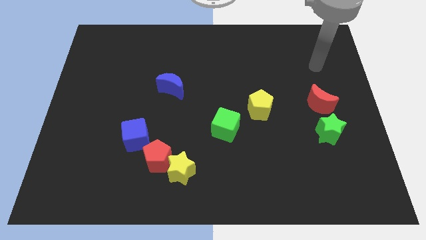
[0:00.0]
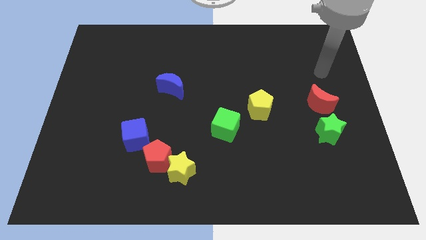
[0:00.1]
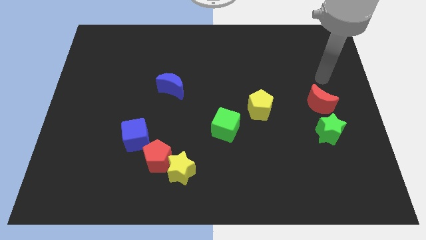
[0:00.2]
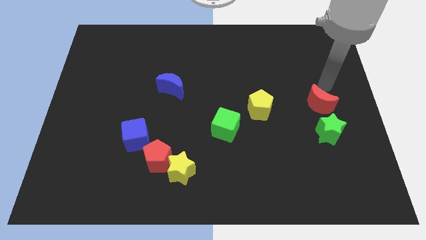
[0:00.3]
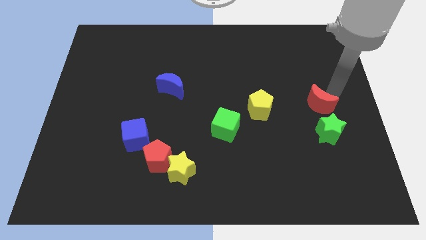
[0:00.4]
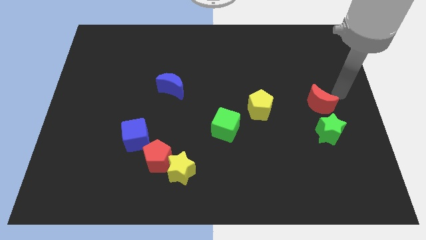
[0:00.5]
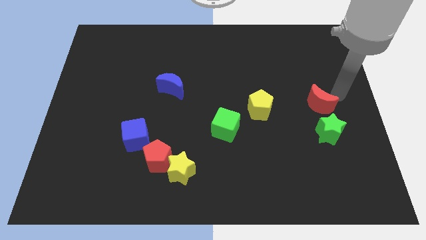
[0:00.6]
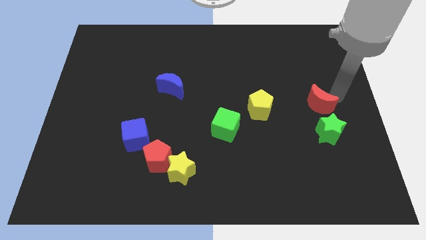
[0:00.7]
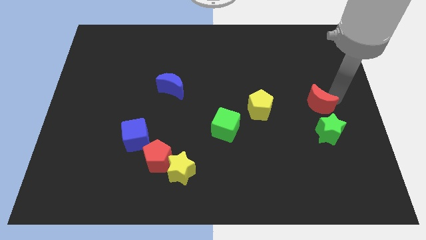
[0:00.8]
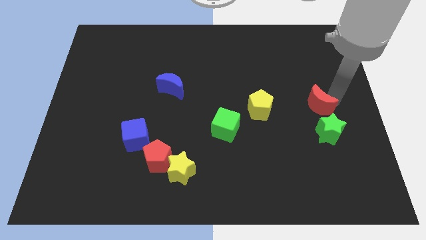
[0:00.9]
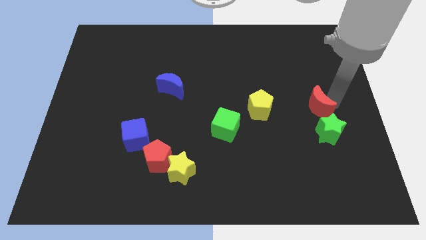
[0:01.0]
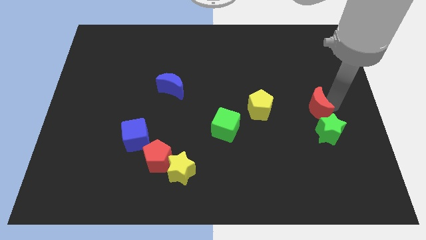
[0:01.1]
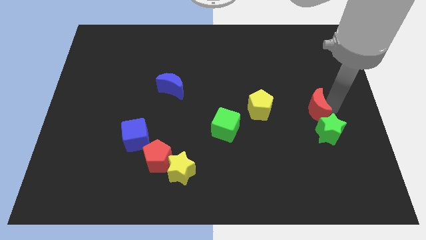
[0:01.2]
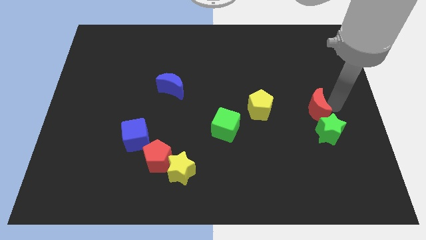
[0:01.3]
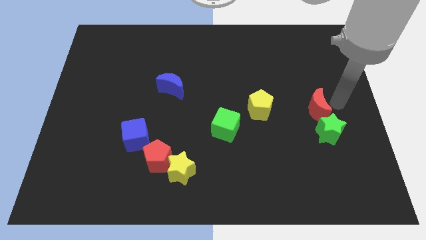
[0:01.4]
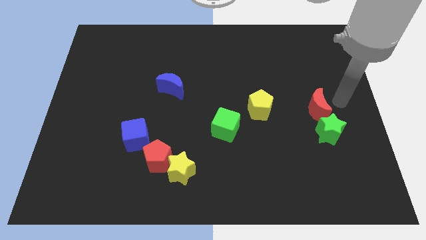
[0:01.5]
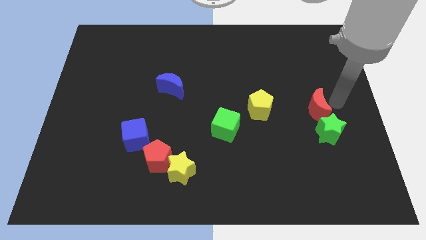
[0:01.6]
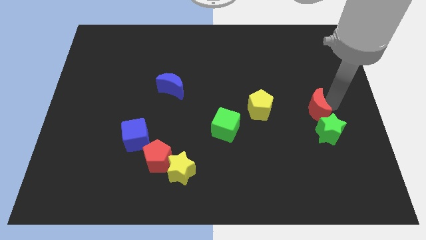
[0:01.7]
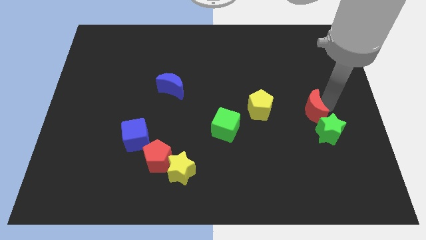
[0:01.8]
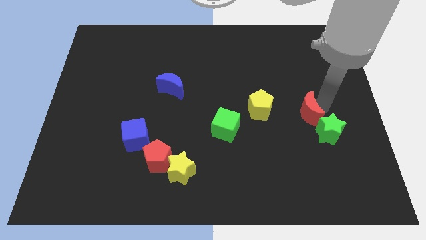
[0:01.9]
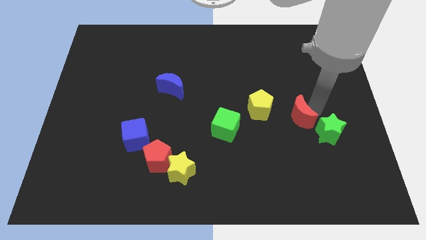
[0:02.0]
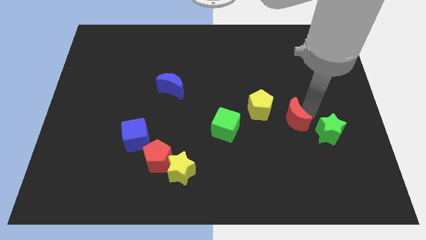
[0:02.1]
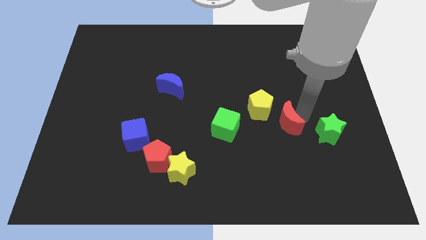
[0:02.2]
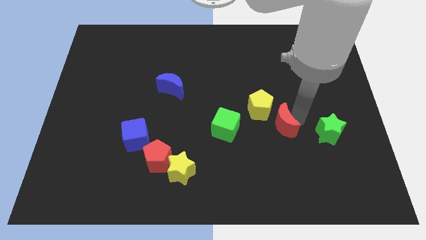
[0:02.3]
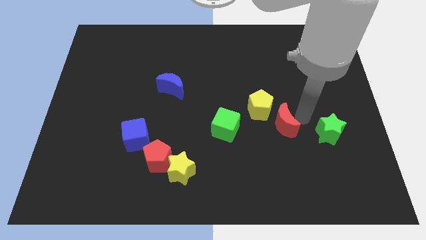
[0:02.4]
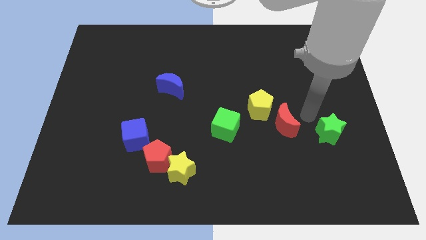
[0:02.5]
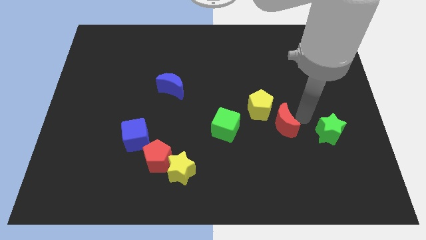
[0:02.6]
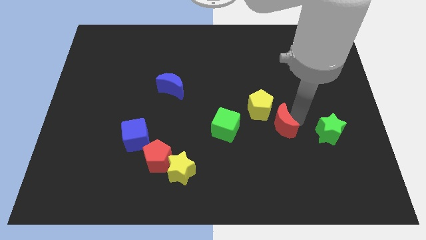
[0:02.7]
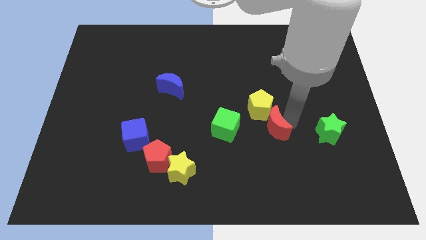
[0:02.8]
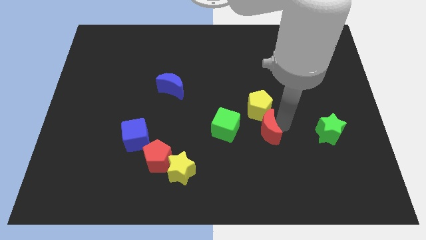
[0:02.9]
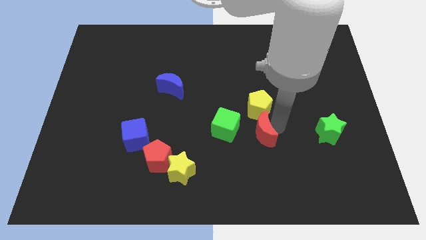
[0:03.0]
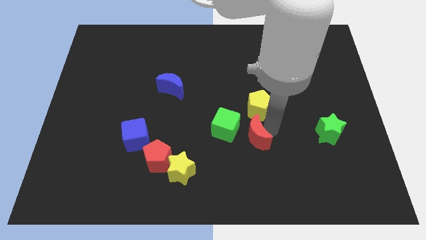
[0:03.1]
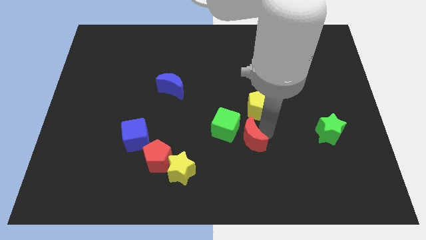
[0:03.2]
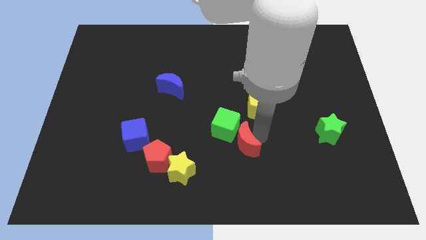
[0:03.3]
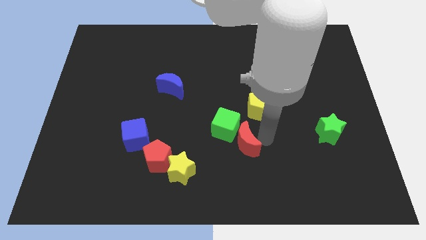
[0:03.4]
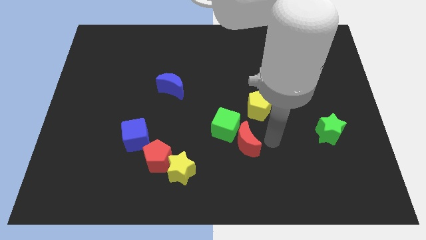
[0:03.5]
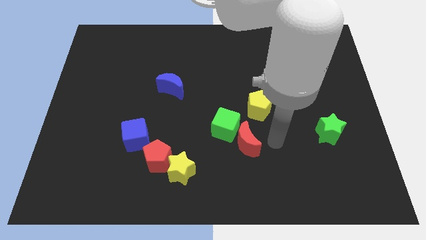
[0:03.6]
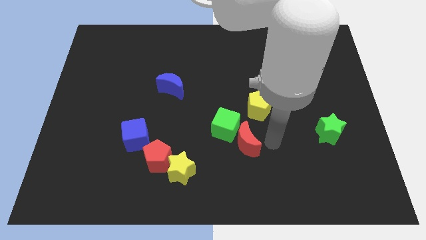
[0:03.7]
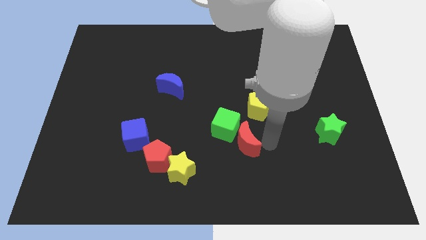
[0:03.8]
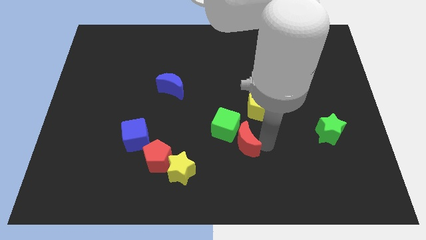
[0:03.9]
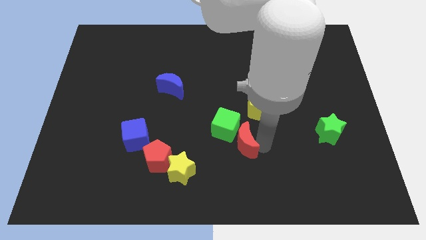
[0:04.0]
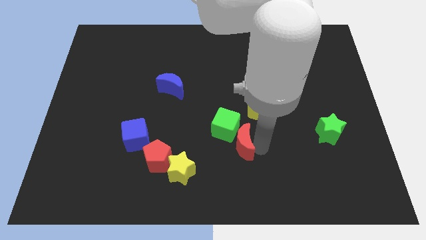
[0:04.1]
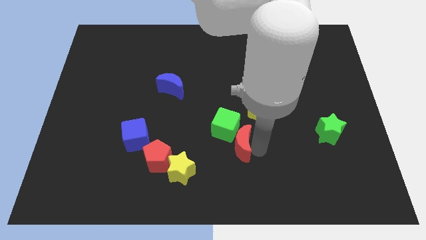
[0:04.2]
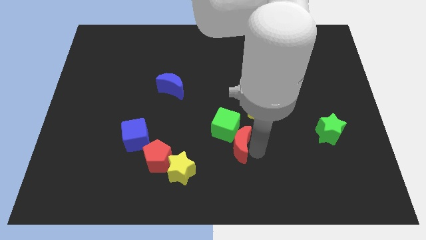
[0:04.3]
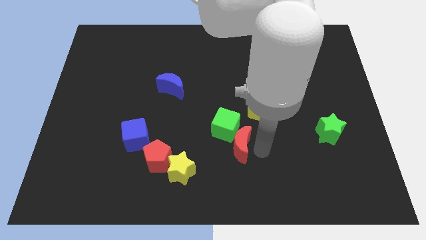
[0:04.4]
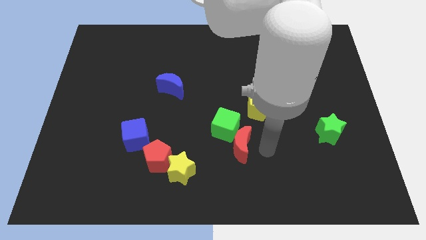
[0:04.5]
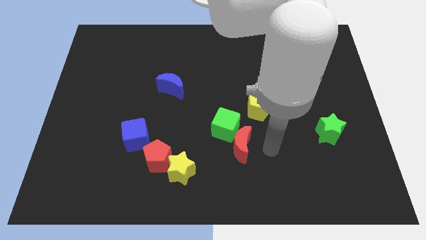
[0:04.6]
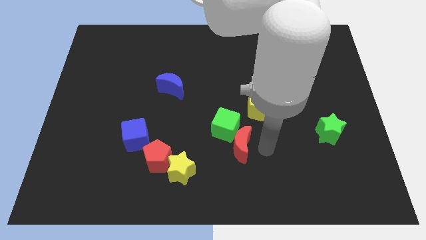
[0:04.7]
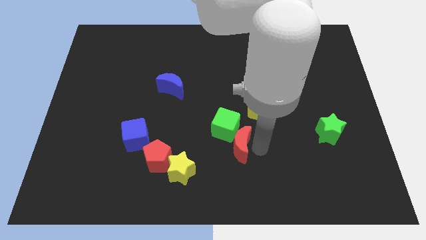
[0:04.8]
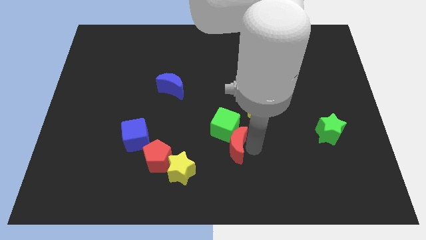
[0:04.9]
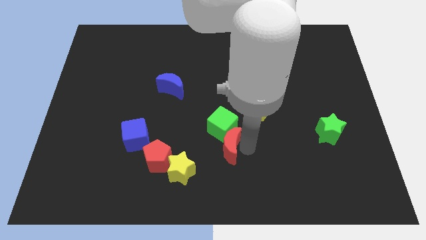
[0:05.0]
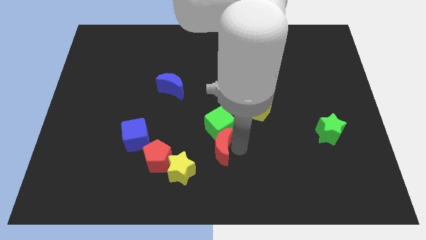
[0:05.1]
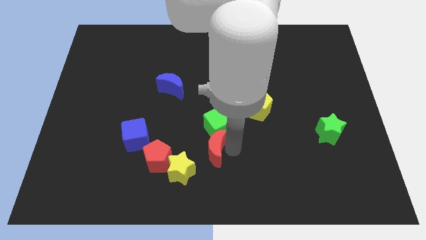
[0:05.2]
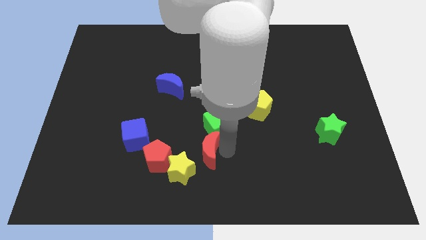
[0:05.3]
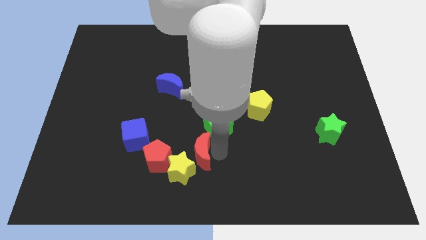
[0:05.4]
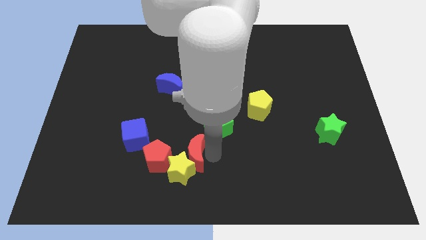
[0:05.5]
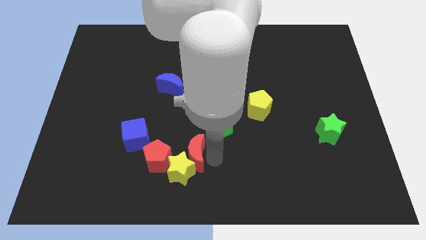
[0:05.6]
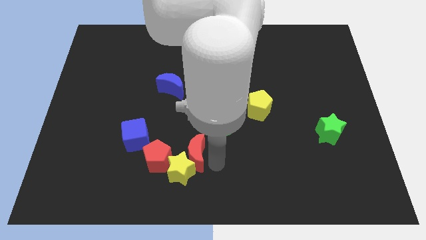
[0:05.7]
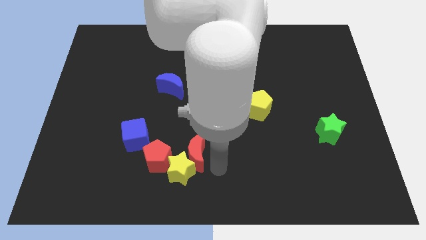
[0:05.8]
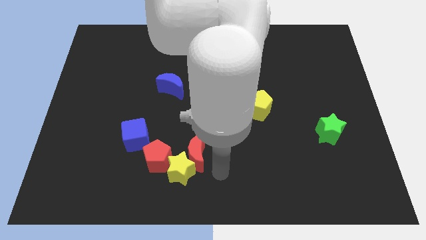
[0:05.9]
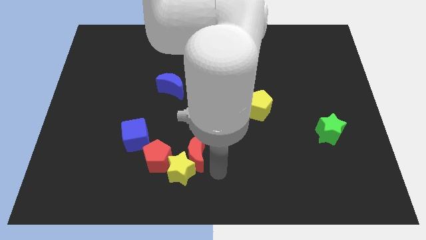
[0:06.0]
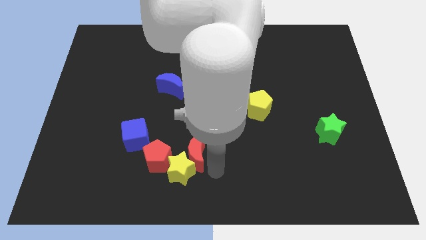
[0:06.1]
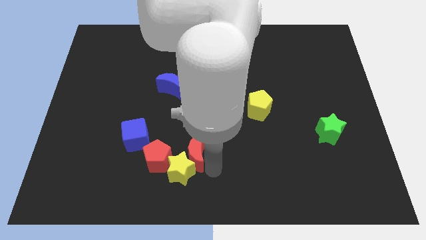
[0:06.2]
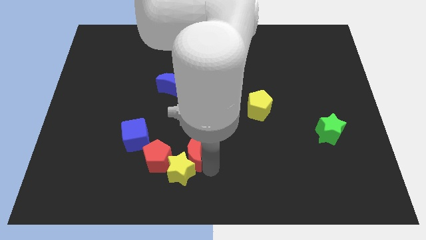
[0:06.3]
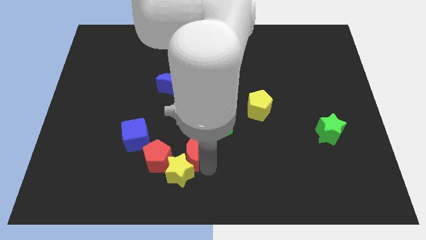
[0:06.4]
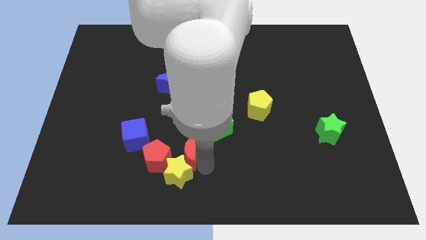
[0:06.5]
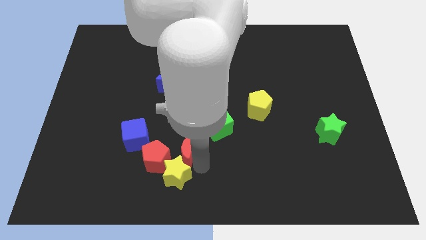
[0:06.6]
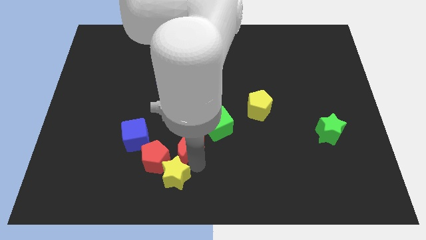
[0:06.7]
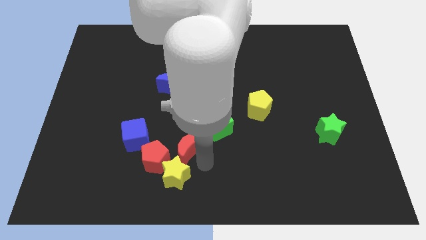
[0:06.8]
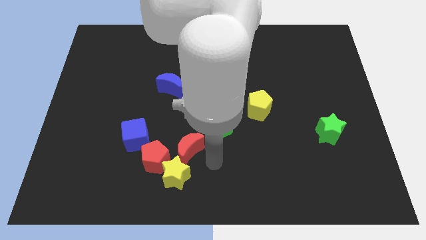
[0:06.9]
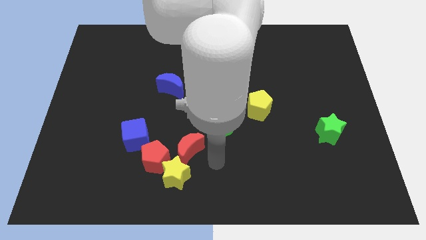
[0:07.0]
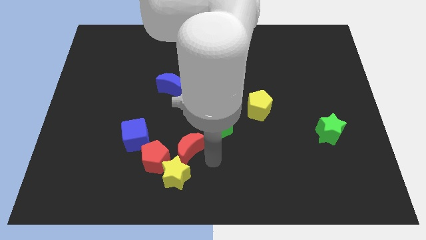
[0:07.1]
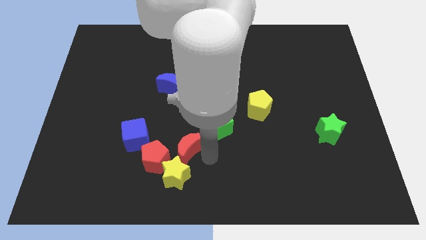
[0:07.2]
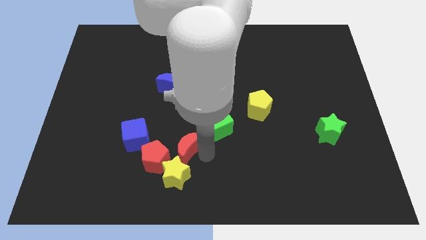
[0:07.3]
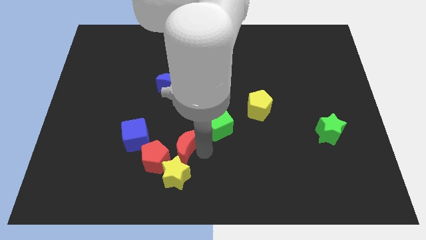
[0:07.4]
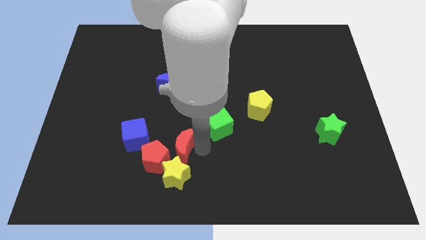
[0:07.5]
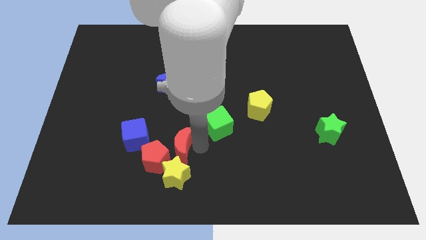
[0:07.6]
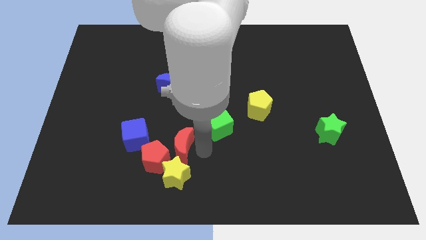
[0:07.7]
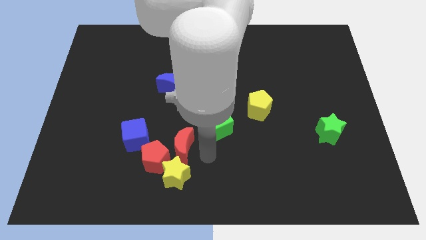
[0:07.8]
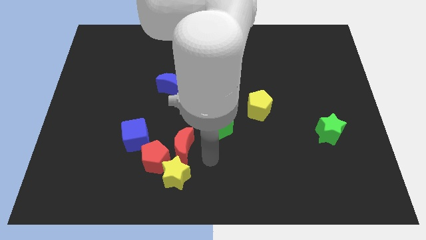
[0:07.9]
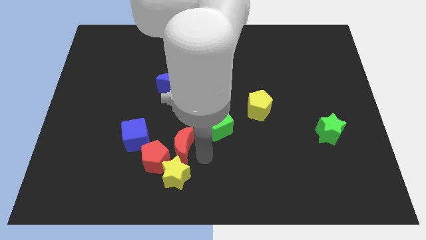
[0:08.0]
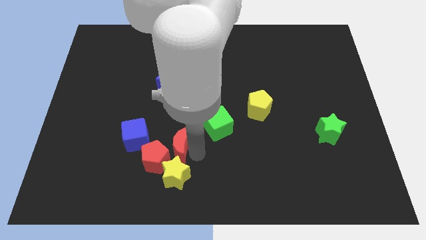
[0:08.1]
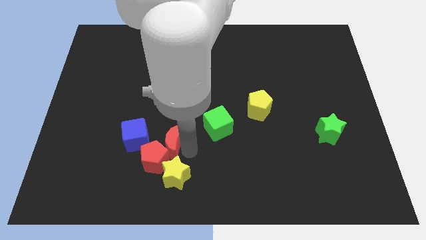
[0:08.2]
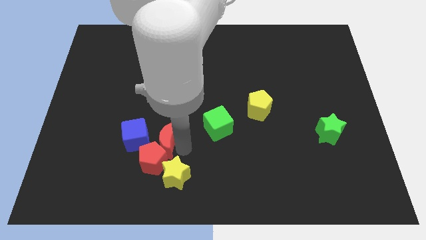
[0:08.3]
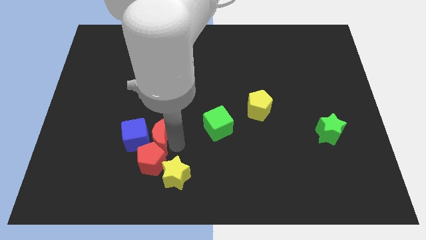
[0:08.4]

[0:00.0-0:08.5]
push the red moon next to the blue cube
